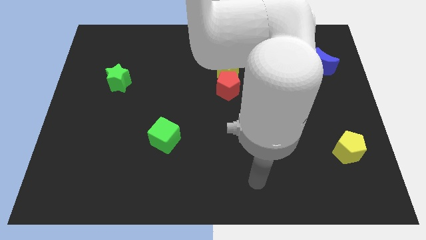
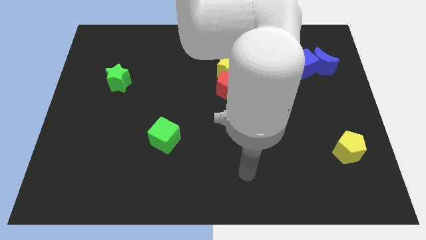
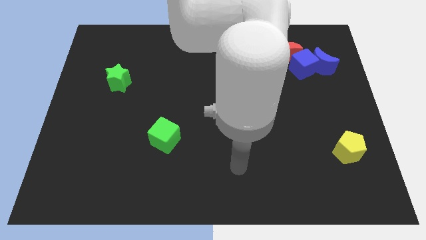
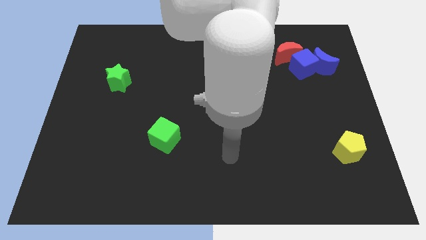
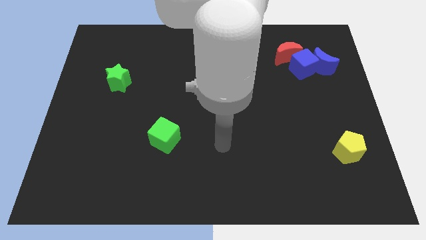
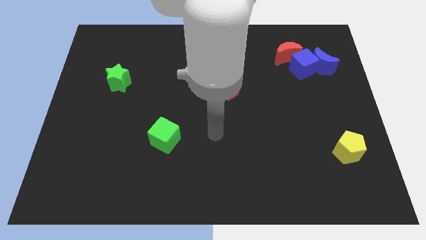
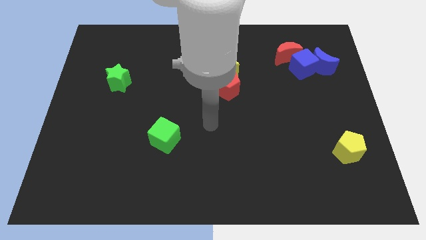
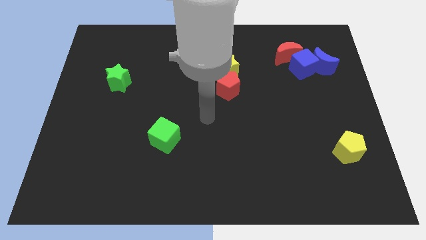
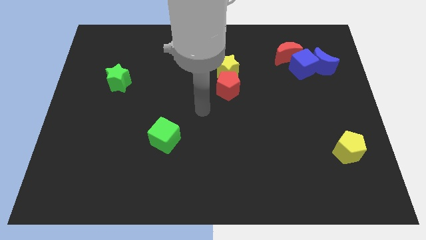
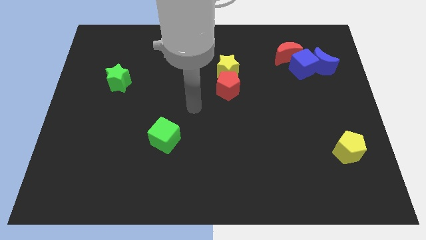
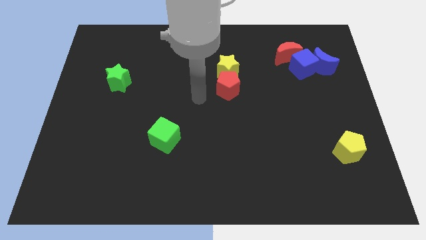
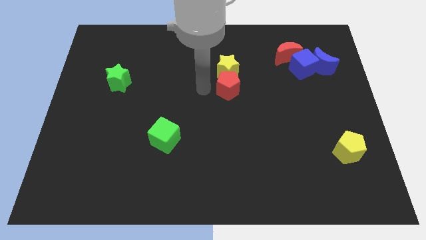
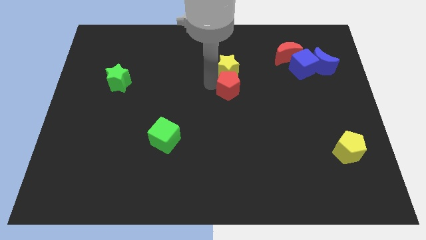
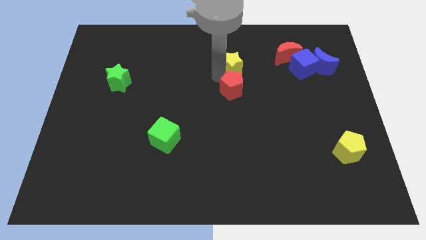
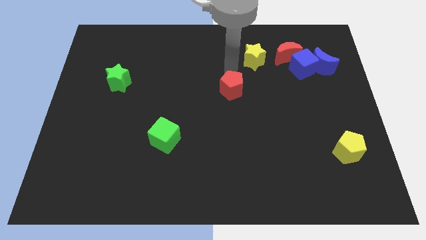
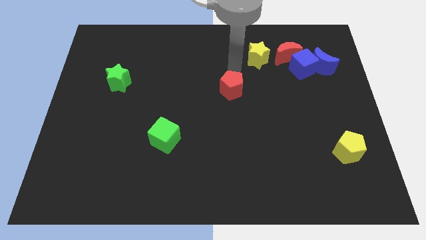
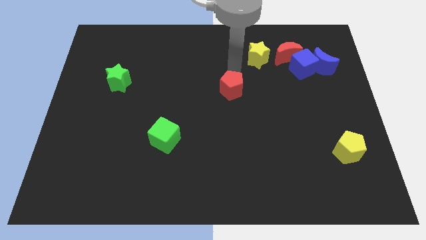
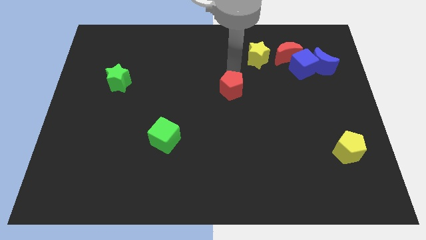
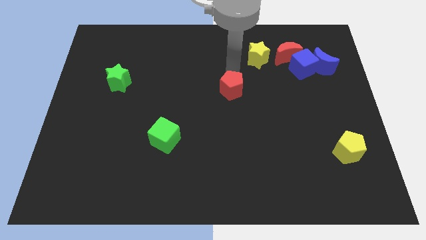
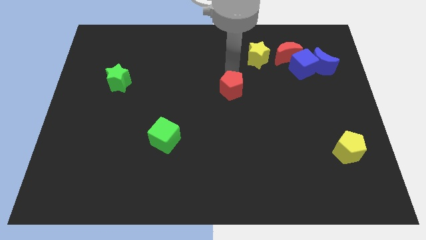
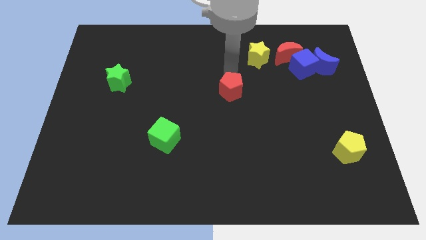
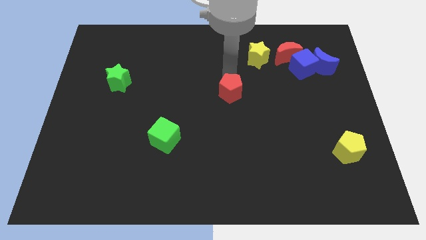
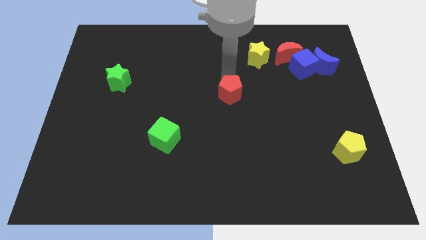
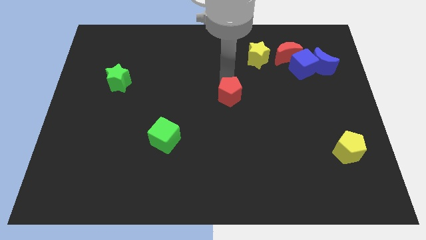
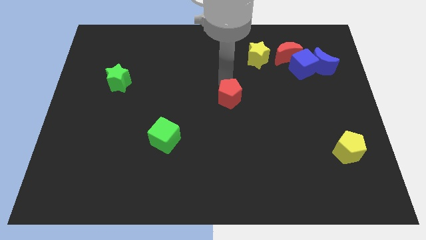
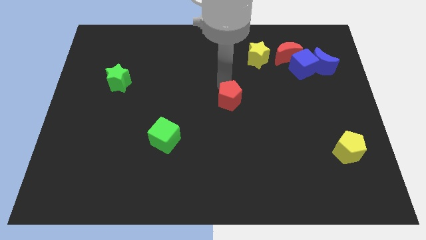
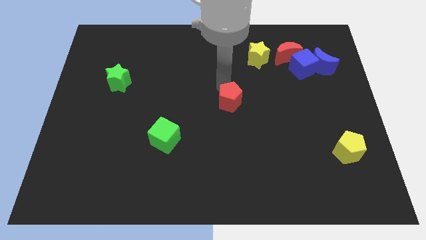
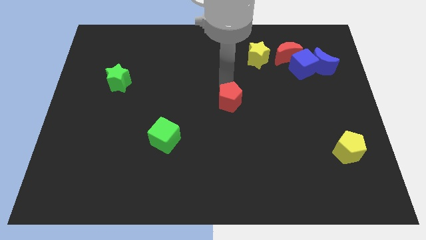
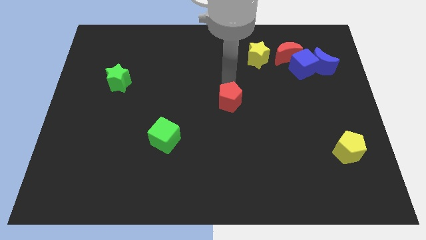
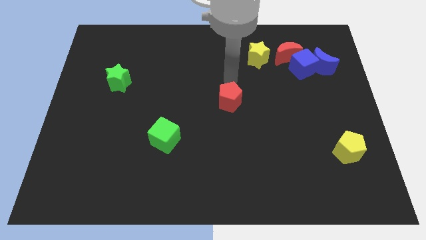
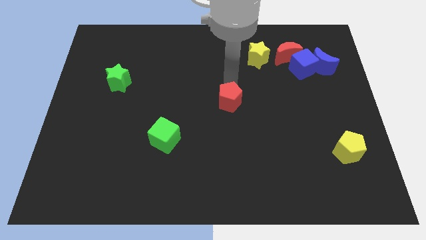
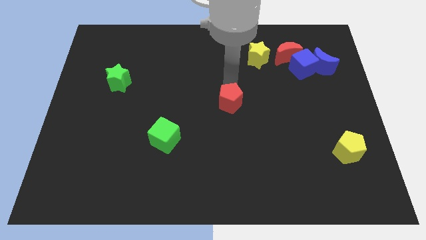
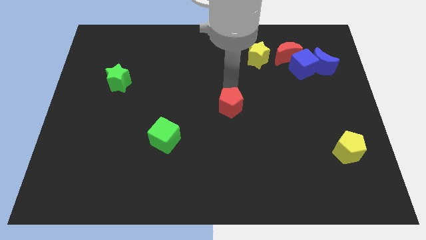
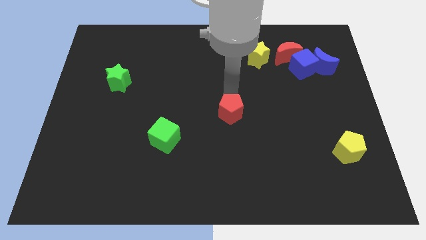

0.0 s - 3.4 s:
slightly move the red pentagon downwards

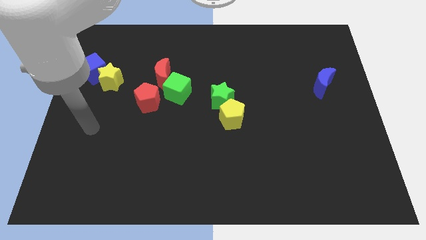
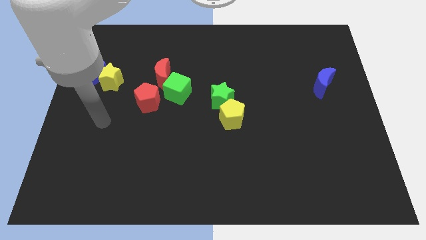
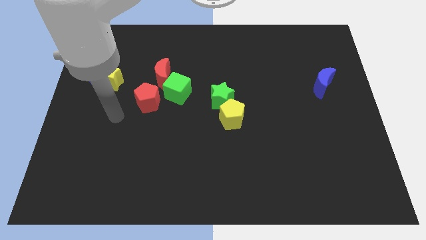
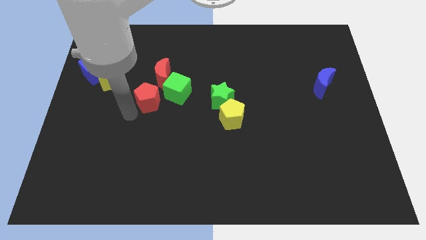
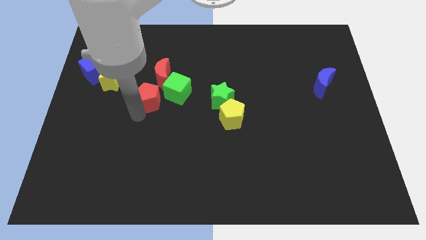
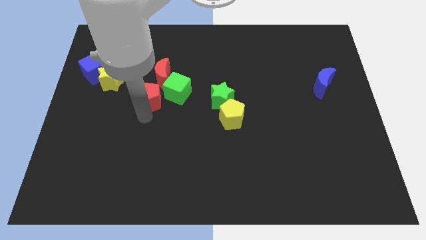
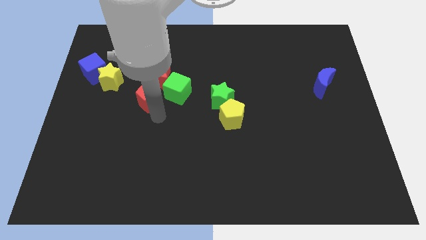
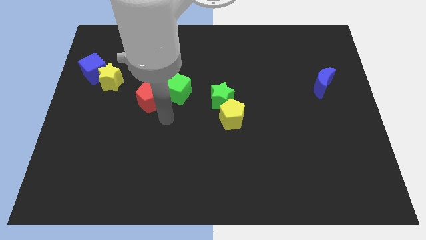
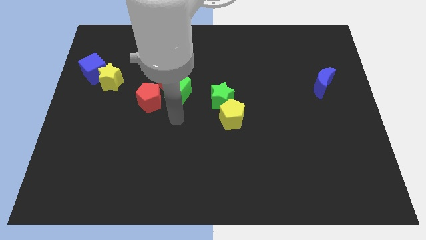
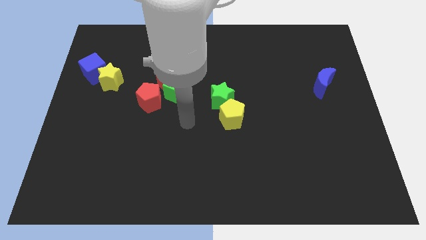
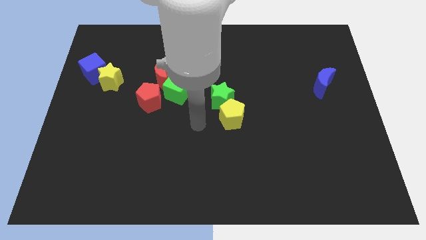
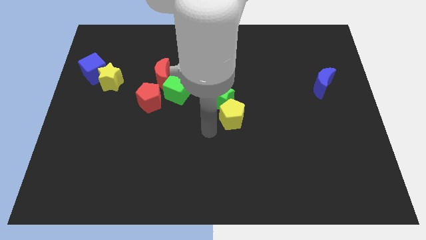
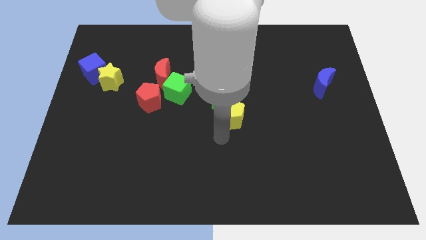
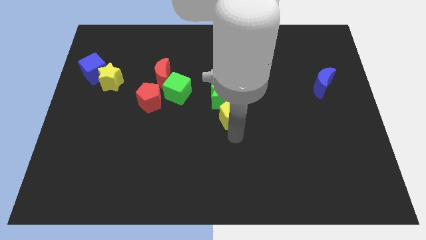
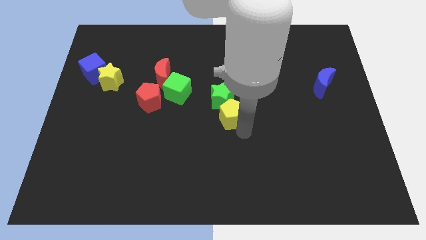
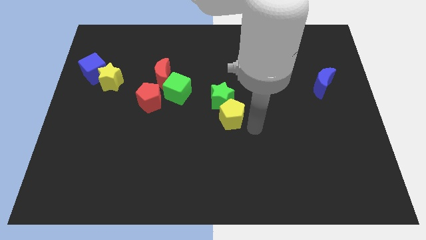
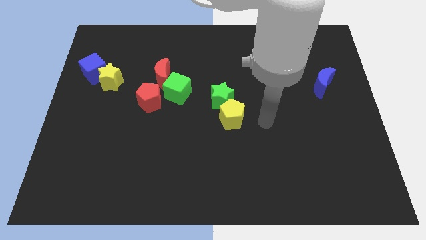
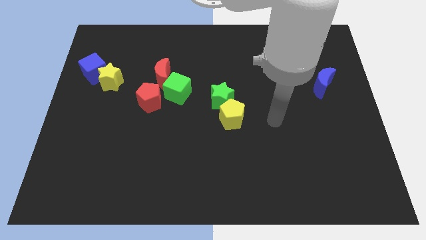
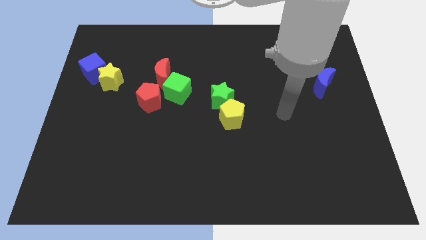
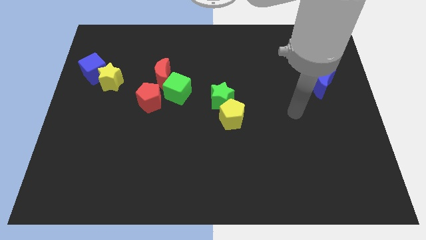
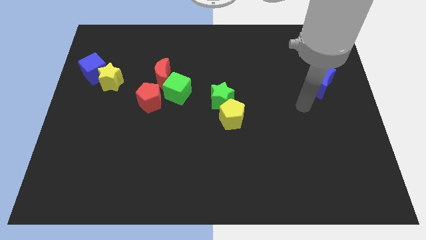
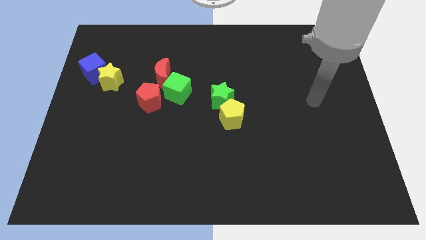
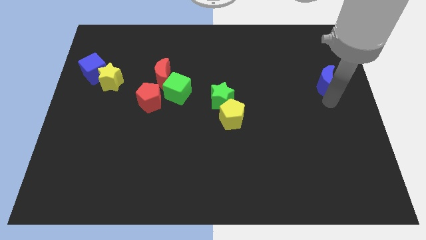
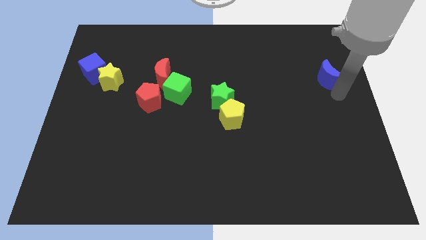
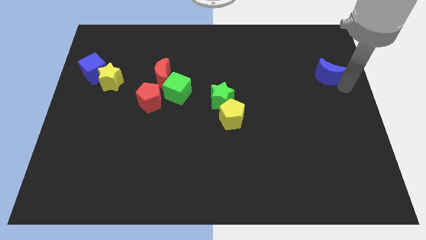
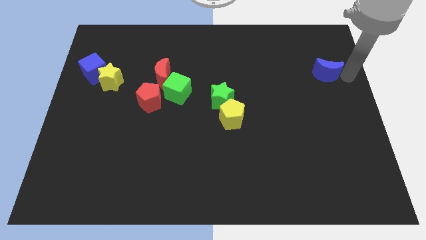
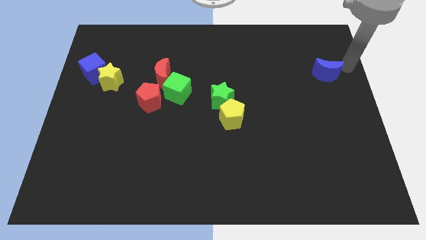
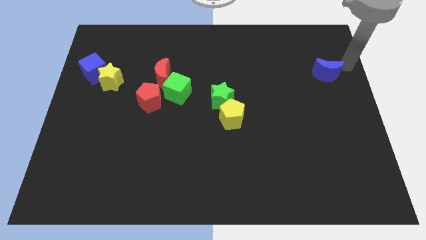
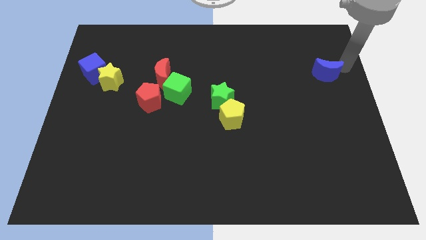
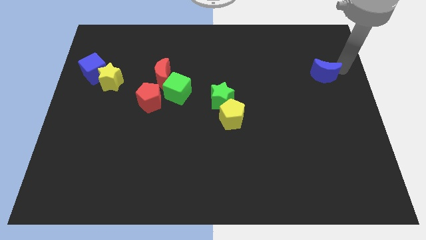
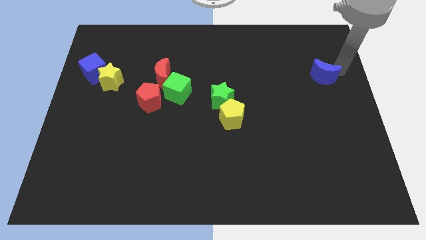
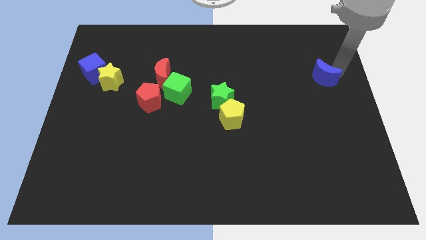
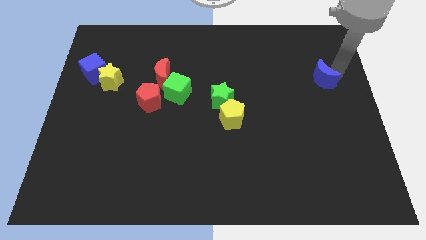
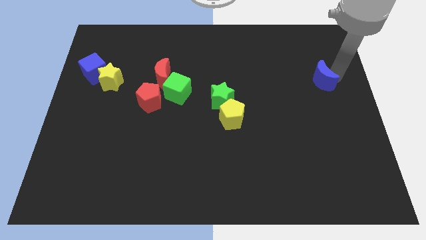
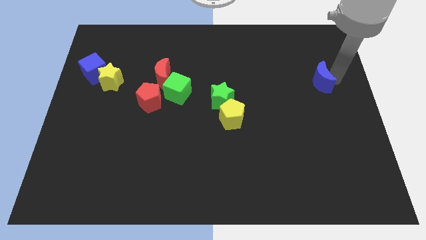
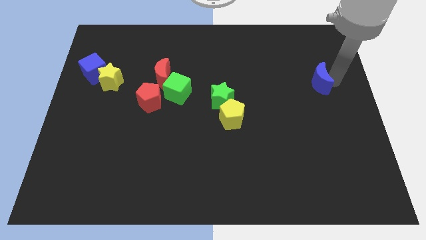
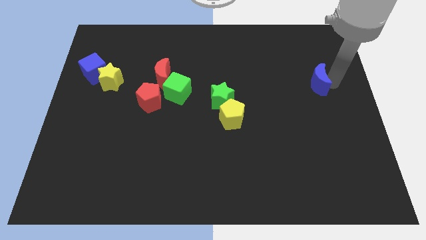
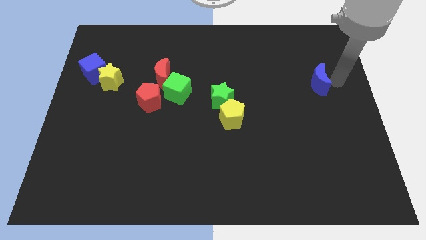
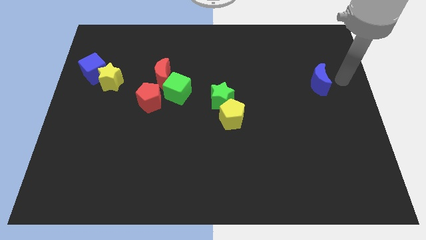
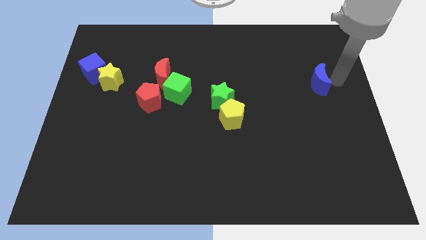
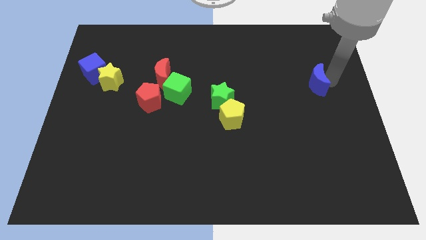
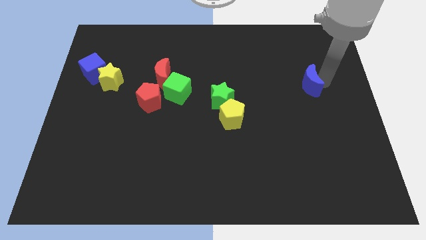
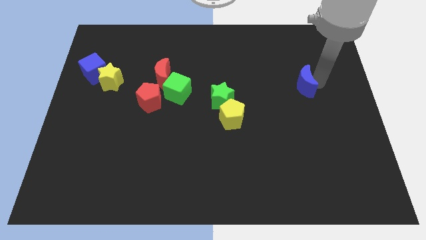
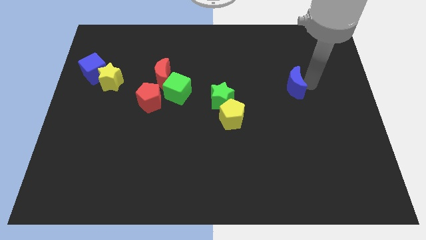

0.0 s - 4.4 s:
slightly slide the blue moon to the left
